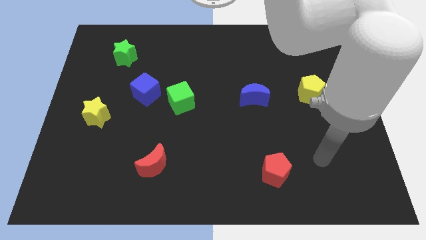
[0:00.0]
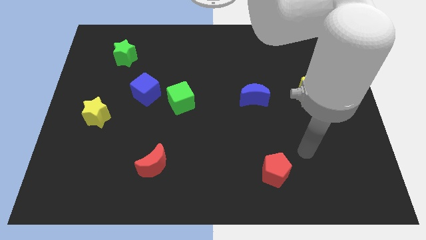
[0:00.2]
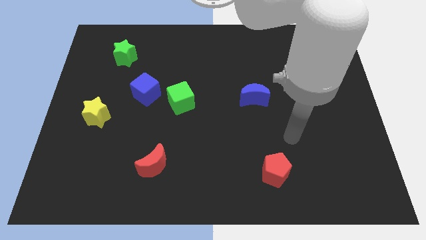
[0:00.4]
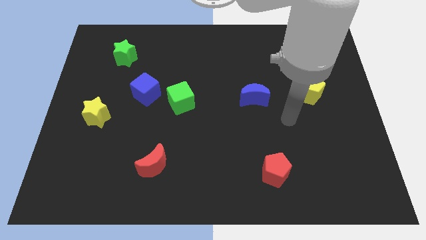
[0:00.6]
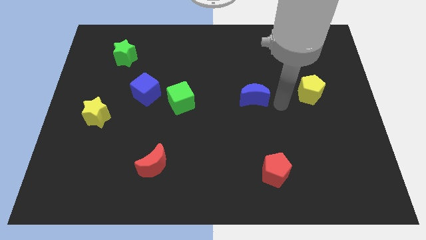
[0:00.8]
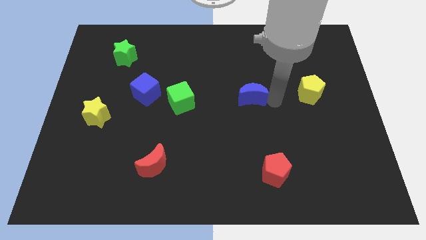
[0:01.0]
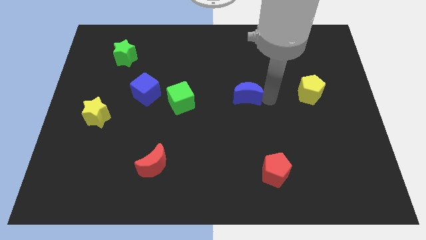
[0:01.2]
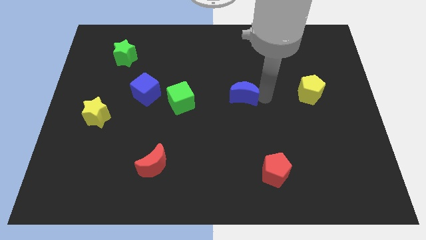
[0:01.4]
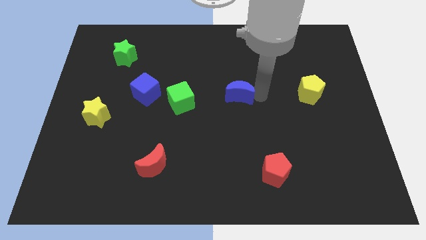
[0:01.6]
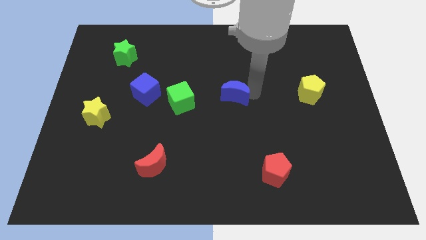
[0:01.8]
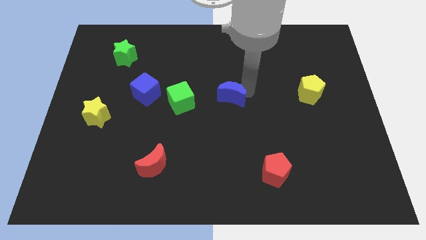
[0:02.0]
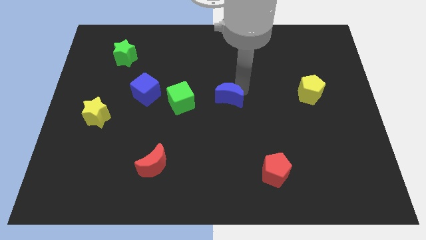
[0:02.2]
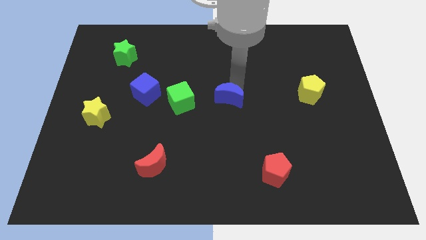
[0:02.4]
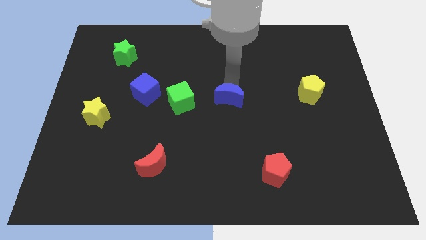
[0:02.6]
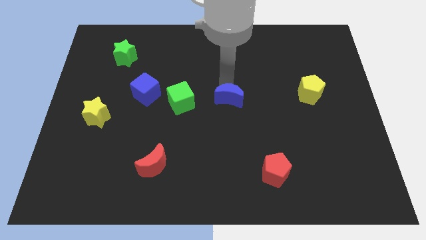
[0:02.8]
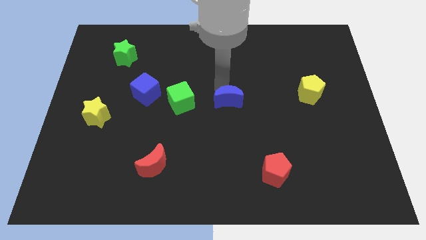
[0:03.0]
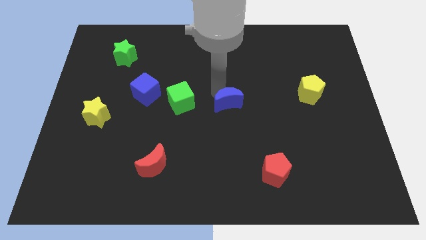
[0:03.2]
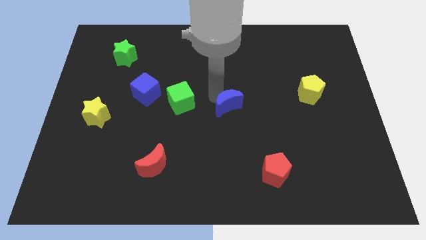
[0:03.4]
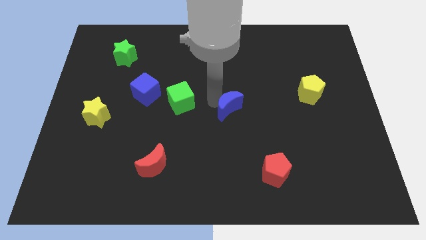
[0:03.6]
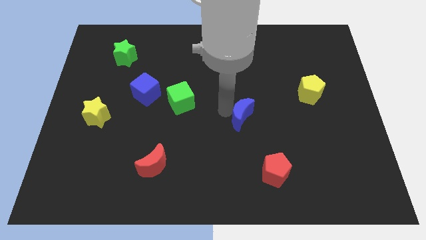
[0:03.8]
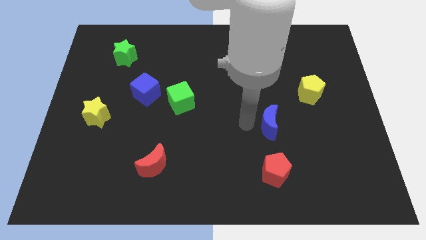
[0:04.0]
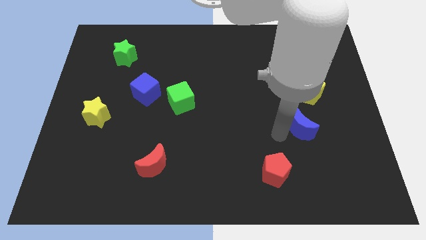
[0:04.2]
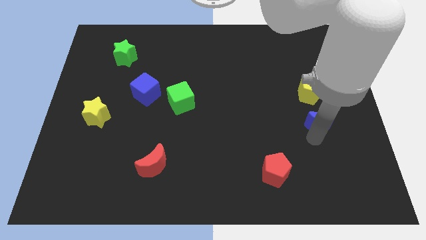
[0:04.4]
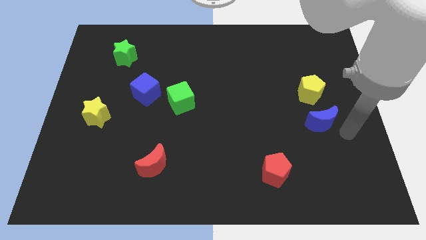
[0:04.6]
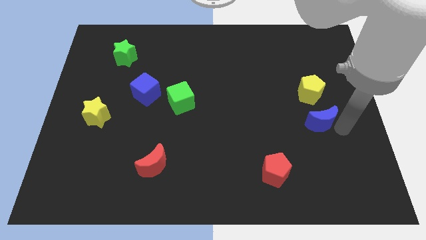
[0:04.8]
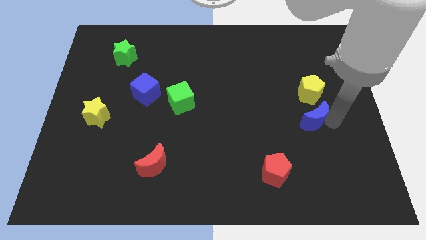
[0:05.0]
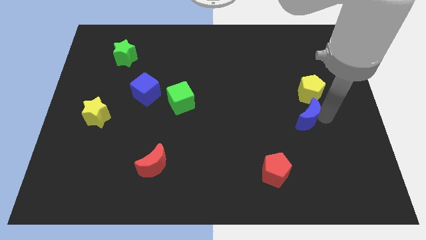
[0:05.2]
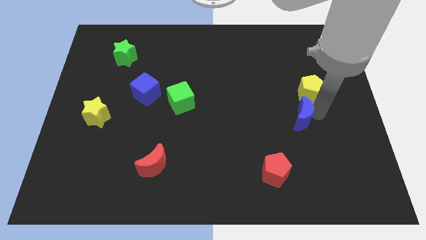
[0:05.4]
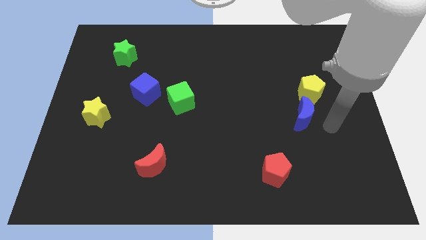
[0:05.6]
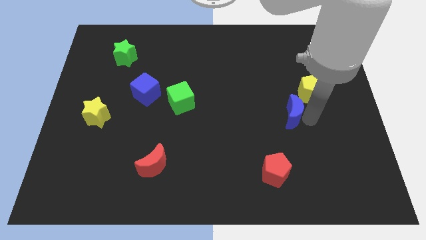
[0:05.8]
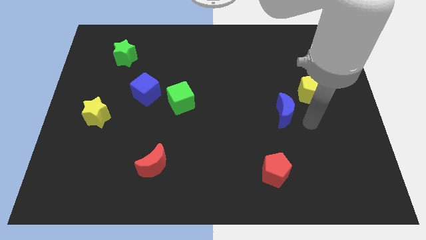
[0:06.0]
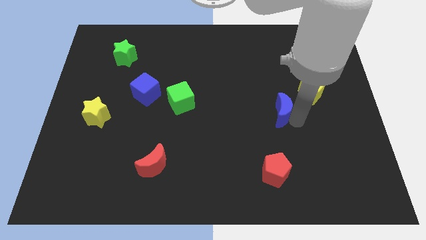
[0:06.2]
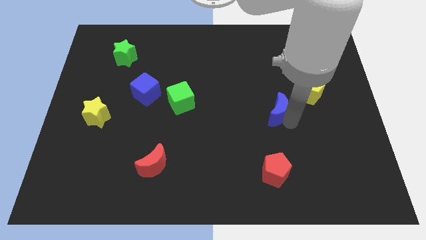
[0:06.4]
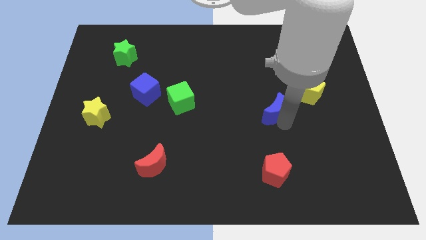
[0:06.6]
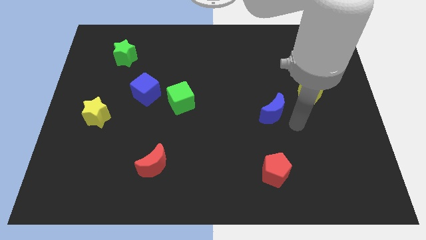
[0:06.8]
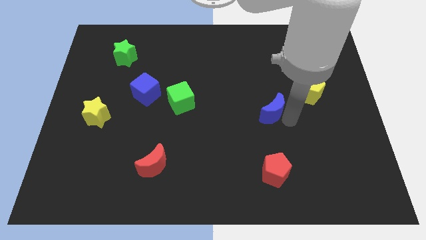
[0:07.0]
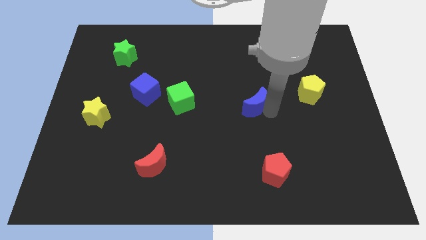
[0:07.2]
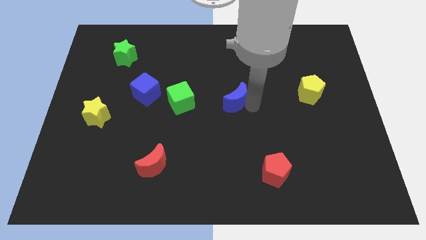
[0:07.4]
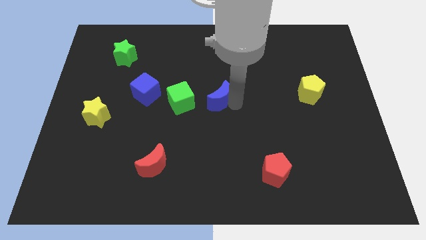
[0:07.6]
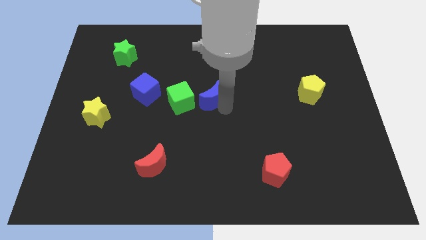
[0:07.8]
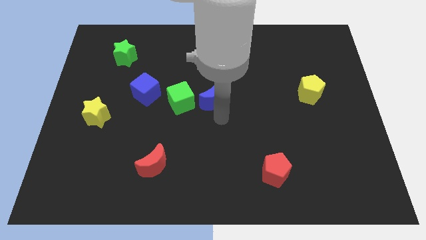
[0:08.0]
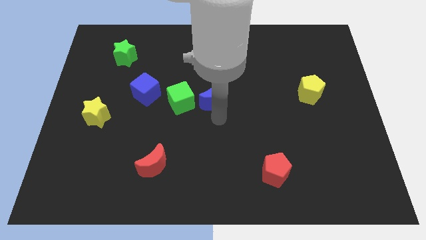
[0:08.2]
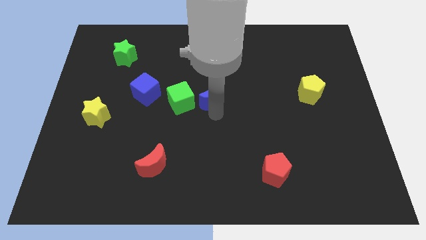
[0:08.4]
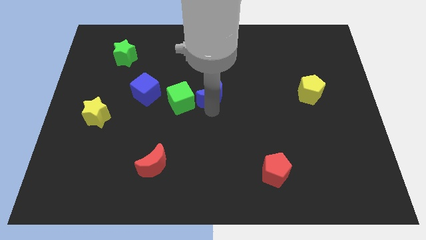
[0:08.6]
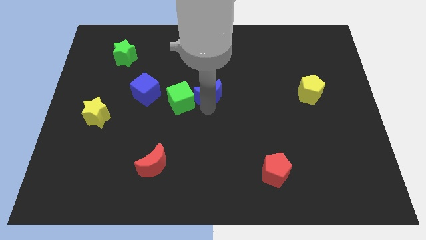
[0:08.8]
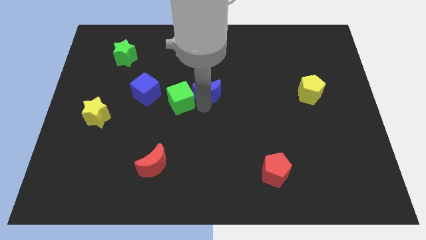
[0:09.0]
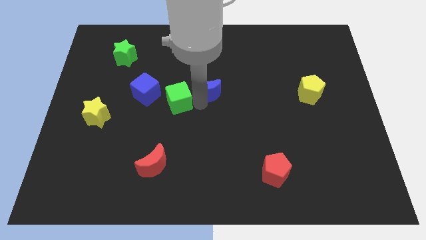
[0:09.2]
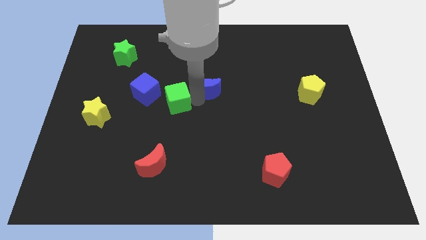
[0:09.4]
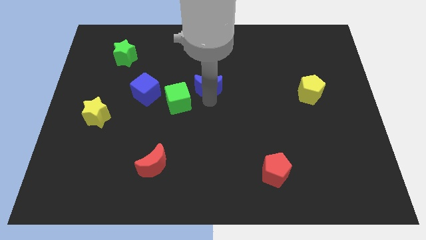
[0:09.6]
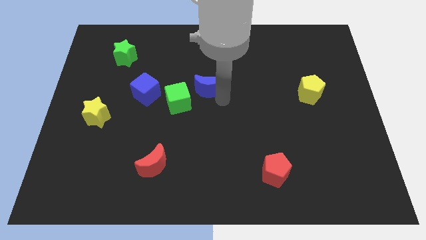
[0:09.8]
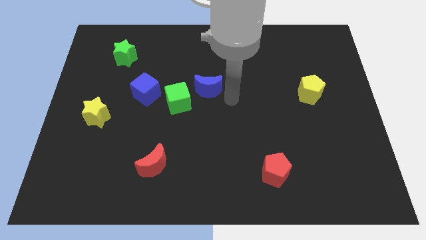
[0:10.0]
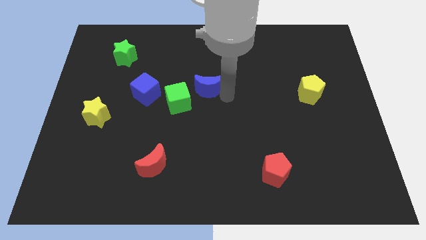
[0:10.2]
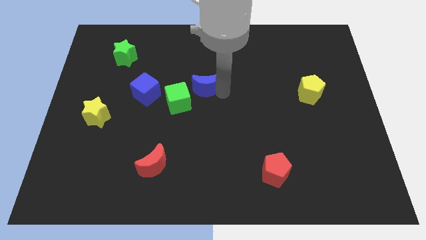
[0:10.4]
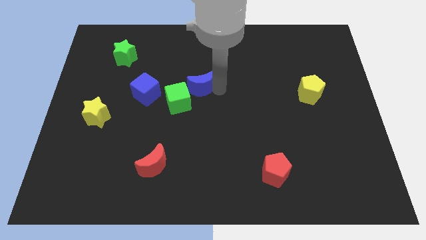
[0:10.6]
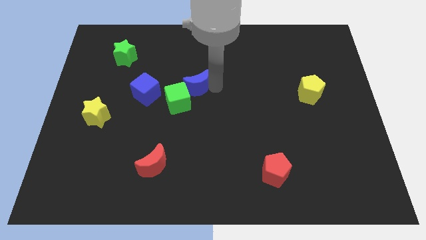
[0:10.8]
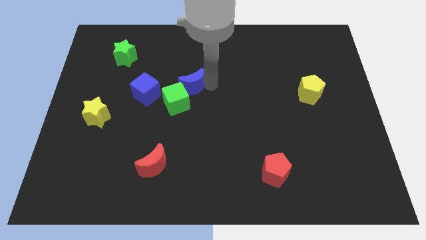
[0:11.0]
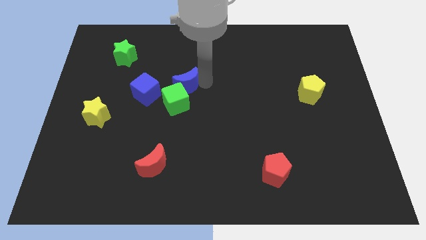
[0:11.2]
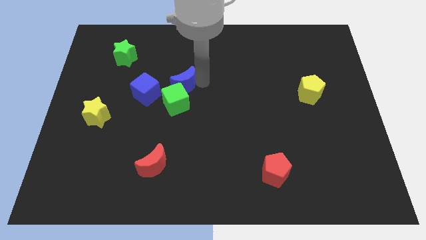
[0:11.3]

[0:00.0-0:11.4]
put the blue moon to the top right of the blue cube

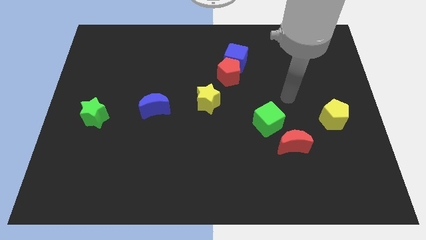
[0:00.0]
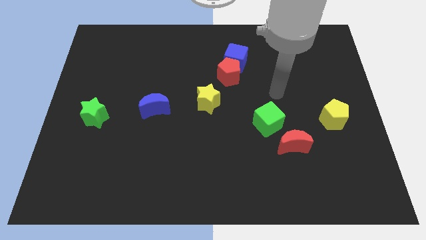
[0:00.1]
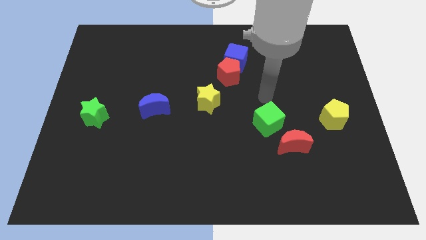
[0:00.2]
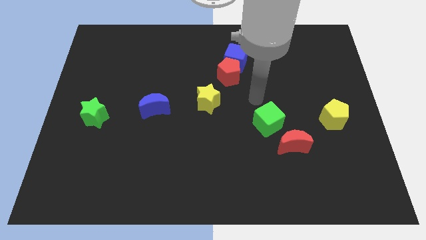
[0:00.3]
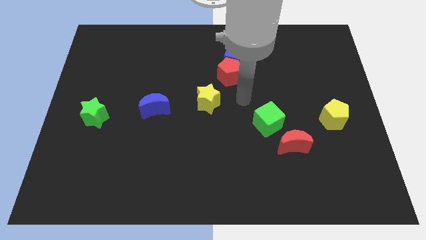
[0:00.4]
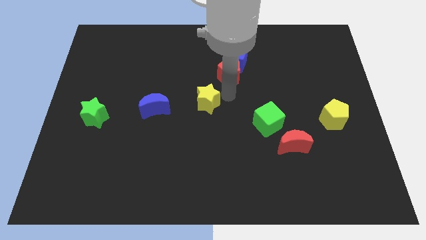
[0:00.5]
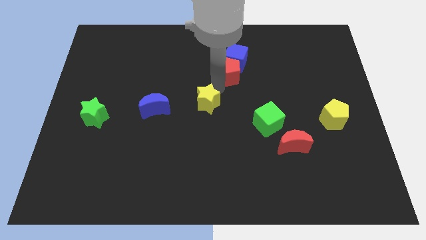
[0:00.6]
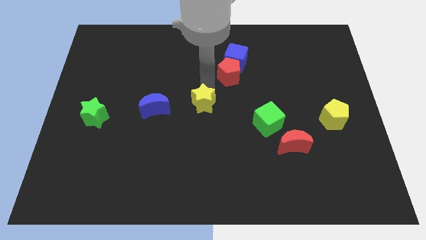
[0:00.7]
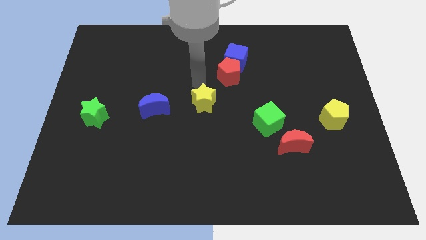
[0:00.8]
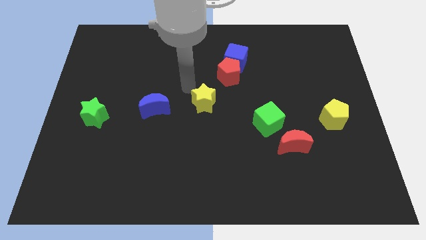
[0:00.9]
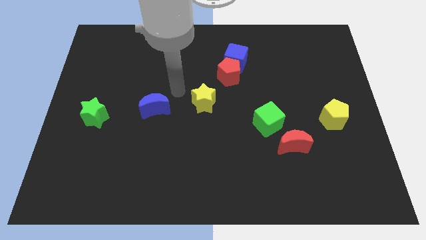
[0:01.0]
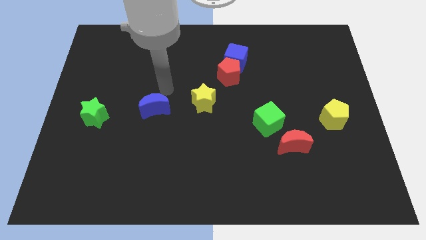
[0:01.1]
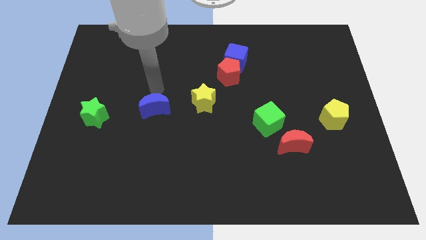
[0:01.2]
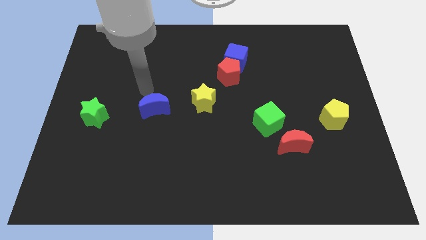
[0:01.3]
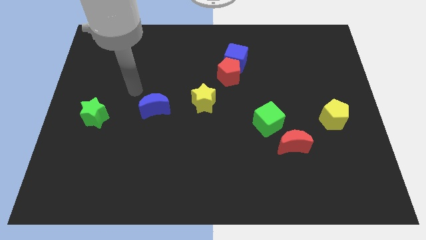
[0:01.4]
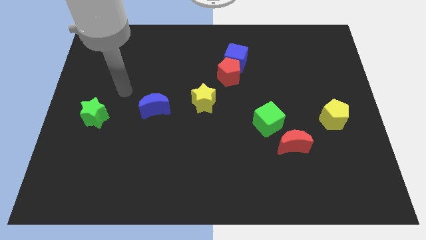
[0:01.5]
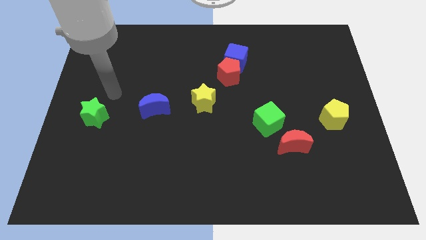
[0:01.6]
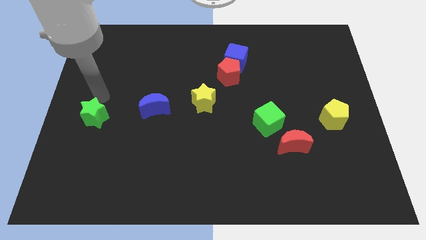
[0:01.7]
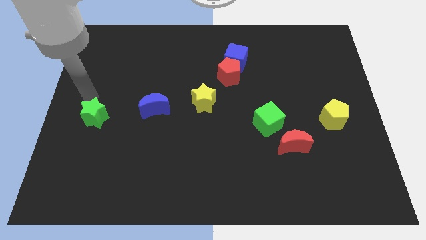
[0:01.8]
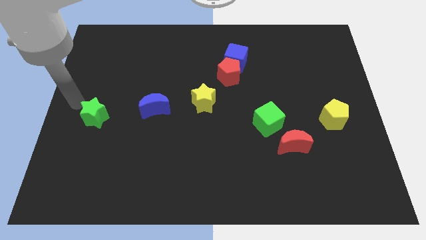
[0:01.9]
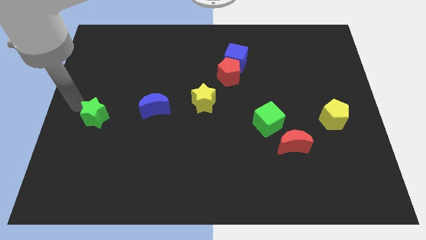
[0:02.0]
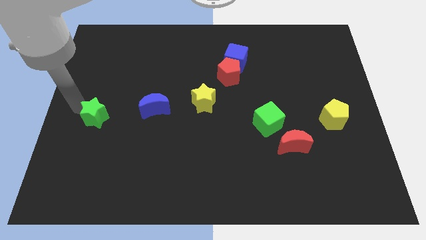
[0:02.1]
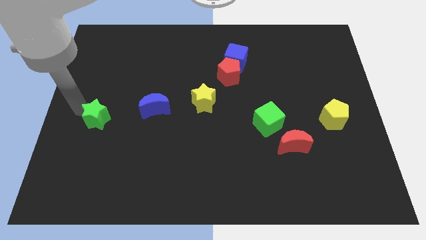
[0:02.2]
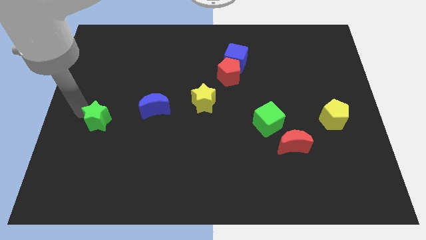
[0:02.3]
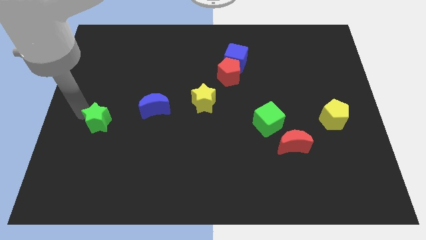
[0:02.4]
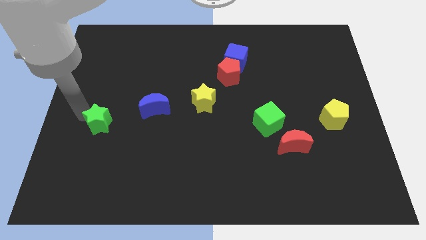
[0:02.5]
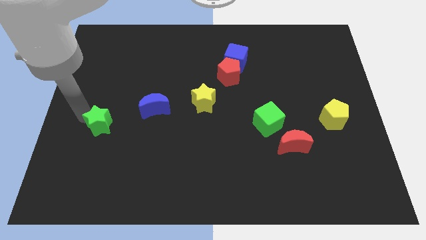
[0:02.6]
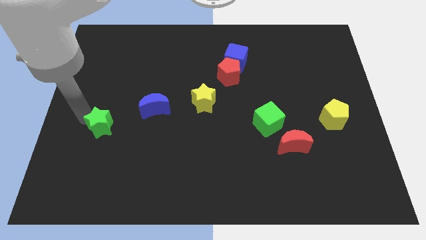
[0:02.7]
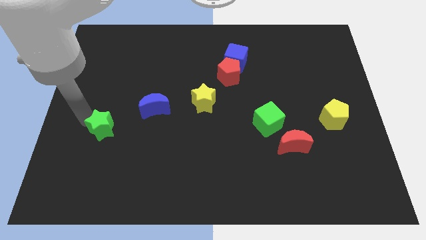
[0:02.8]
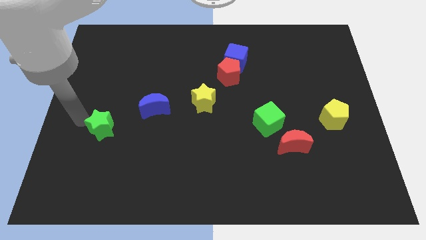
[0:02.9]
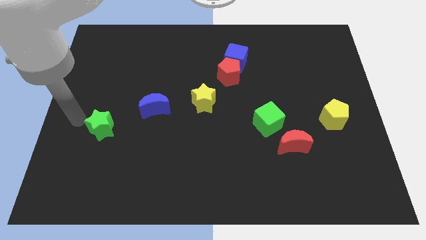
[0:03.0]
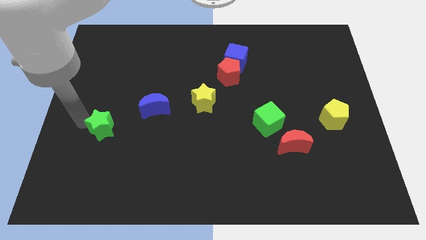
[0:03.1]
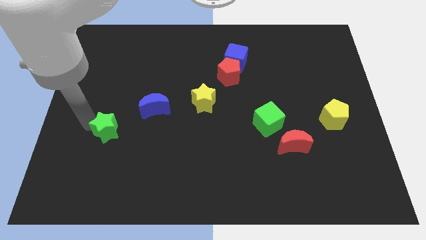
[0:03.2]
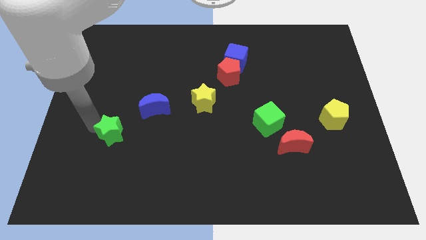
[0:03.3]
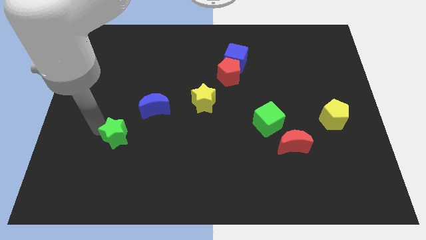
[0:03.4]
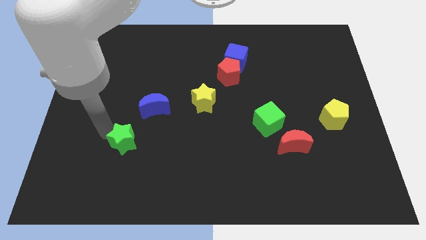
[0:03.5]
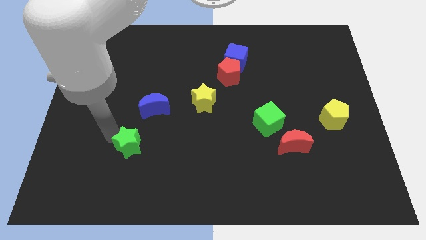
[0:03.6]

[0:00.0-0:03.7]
push the green star below the blue moon
